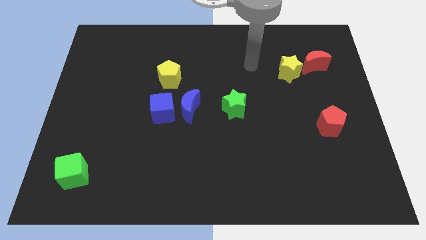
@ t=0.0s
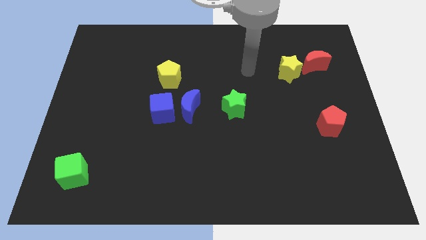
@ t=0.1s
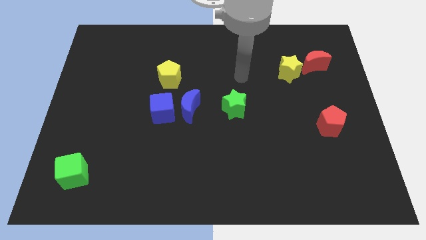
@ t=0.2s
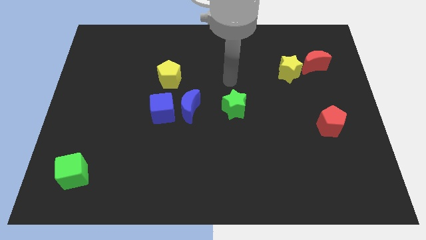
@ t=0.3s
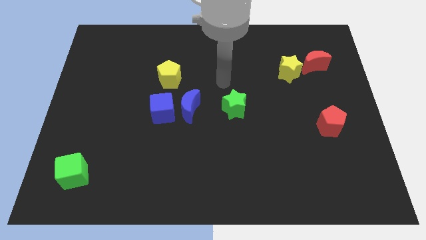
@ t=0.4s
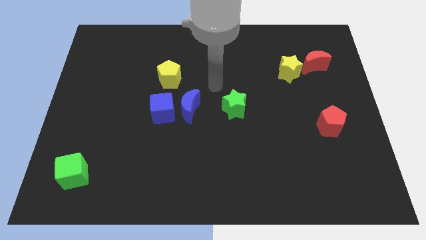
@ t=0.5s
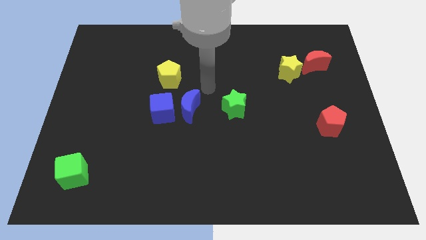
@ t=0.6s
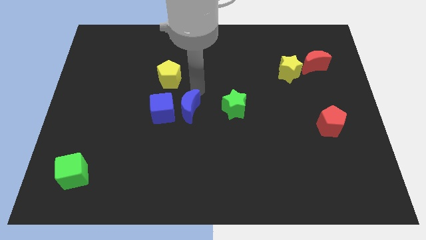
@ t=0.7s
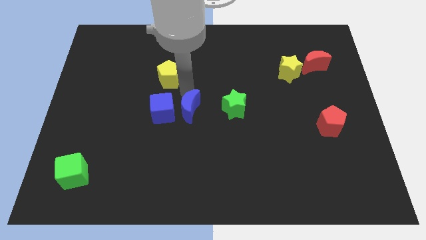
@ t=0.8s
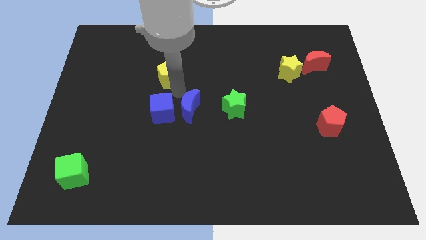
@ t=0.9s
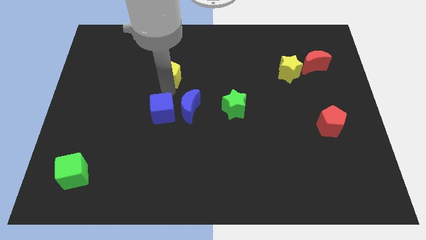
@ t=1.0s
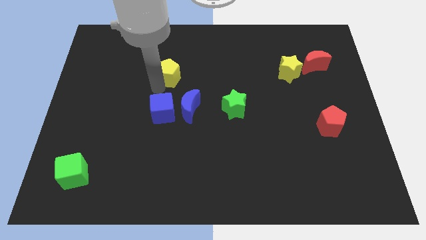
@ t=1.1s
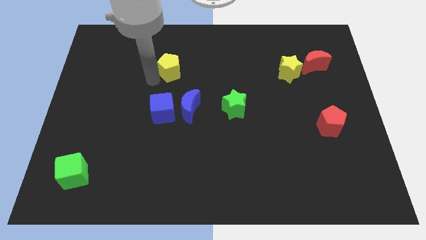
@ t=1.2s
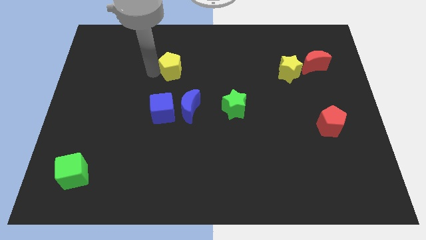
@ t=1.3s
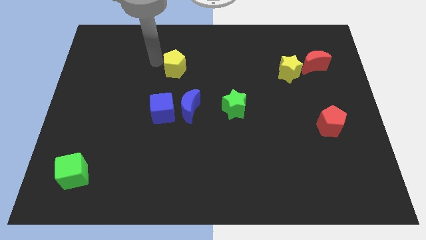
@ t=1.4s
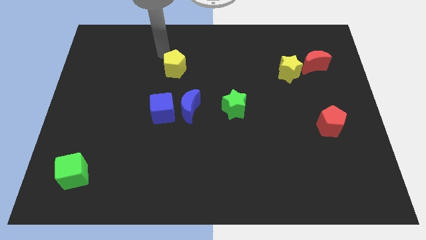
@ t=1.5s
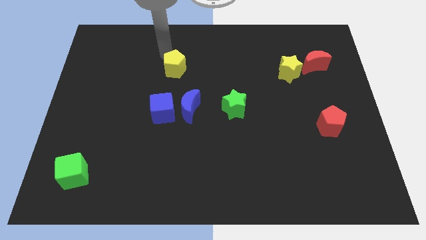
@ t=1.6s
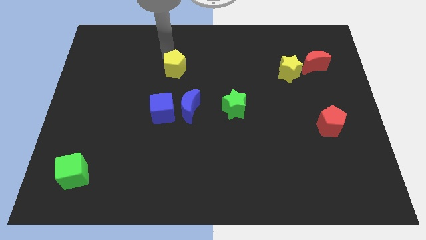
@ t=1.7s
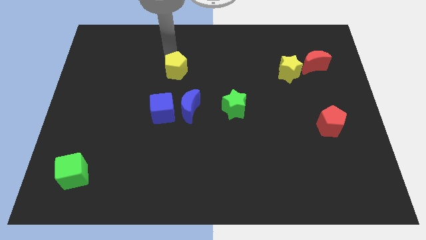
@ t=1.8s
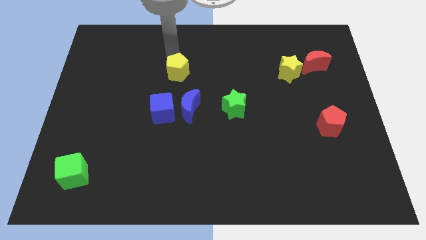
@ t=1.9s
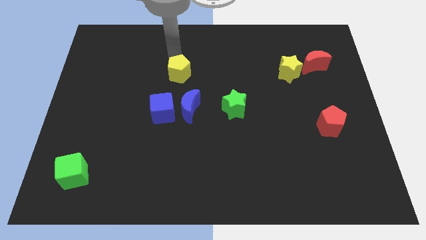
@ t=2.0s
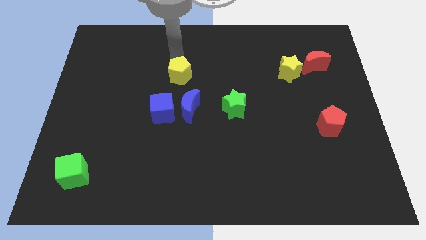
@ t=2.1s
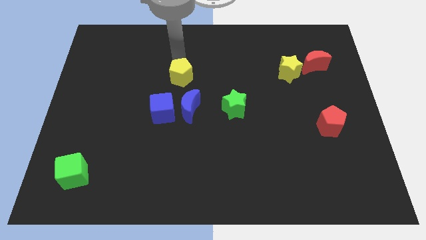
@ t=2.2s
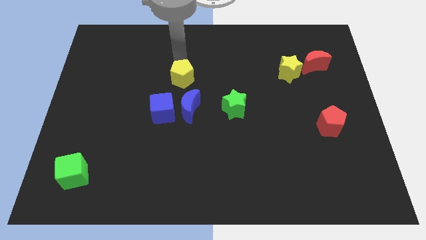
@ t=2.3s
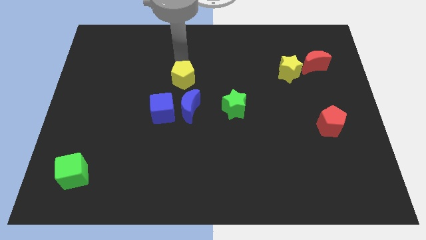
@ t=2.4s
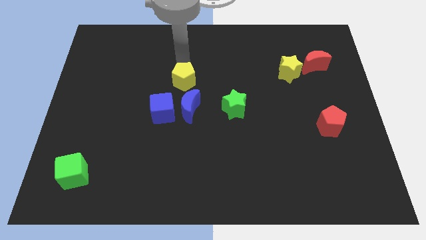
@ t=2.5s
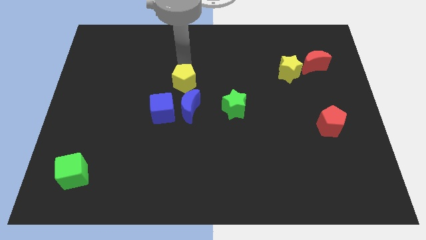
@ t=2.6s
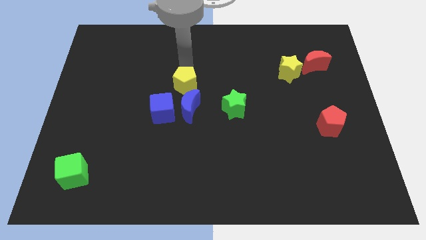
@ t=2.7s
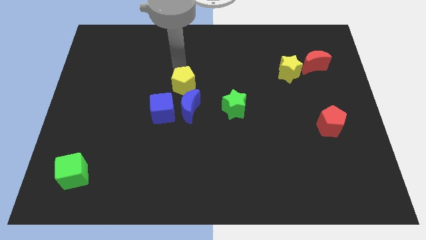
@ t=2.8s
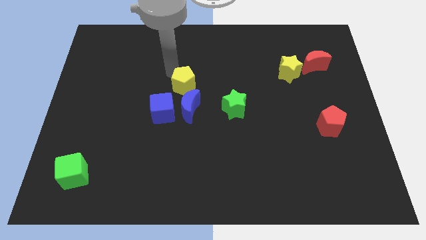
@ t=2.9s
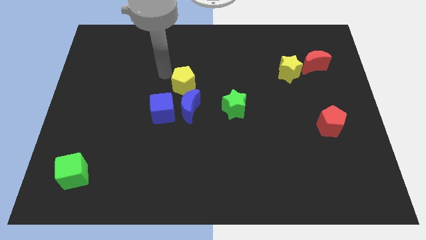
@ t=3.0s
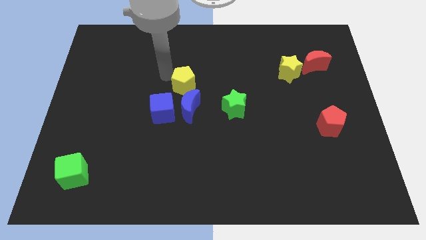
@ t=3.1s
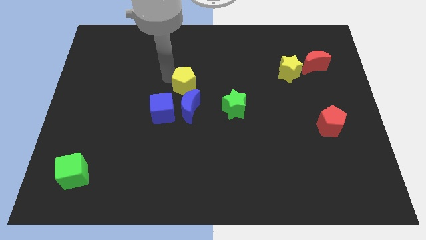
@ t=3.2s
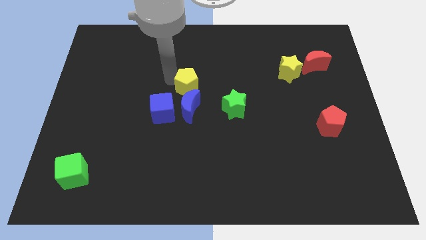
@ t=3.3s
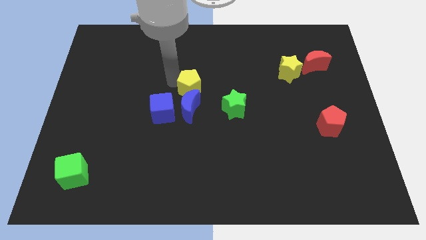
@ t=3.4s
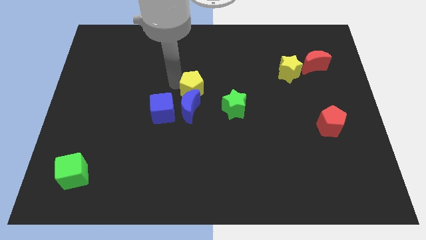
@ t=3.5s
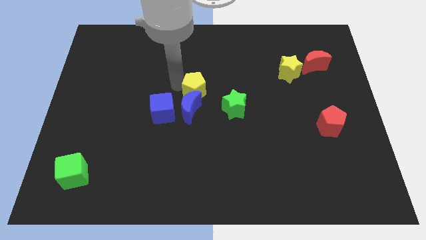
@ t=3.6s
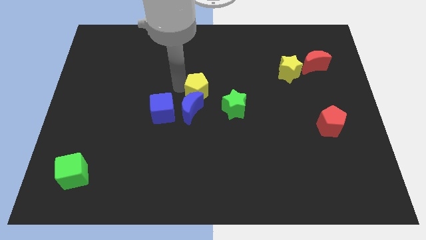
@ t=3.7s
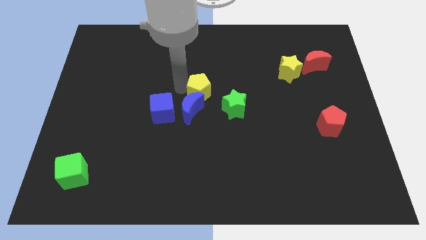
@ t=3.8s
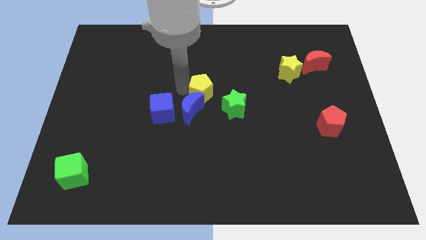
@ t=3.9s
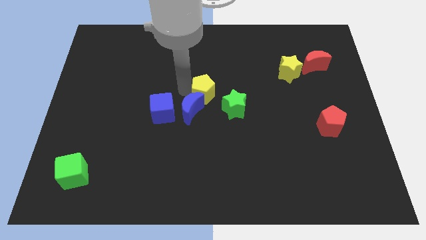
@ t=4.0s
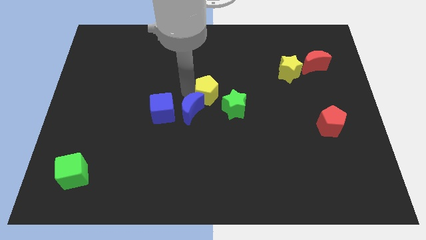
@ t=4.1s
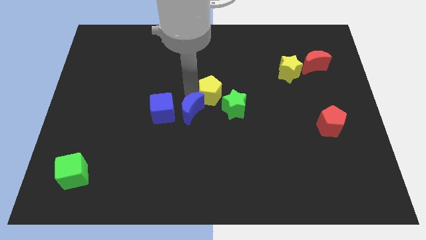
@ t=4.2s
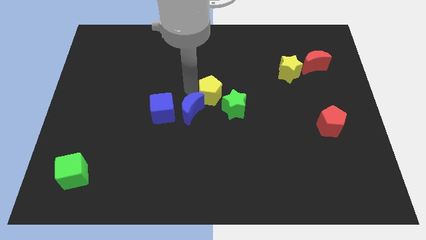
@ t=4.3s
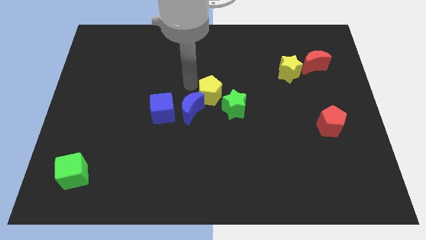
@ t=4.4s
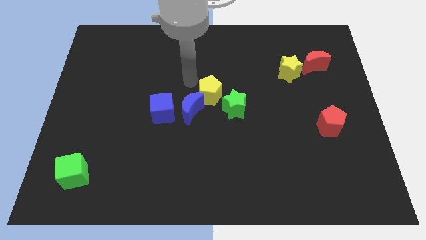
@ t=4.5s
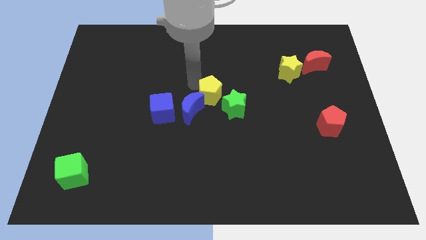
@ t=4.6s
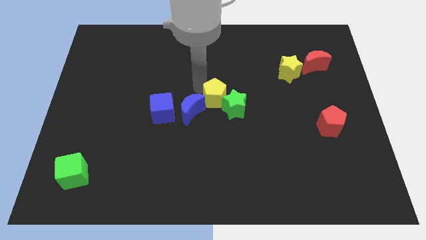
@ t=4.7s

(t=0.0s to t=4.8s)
put the yellow pentagon close to the green star

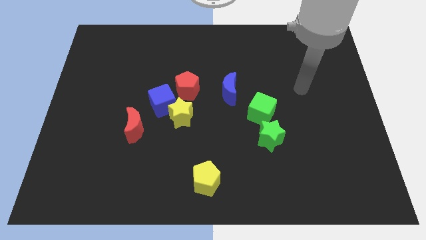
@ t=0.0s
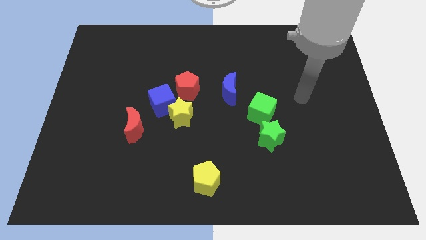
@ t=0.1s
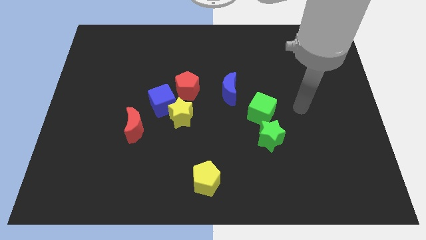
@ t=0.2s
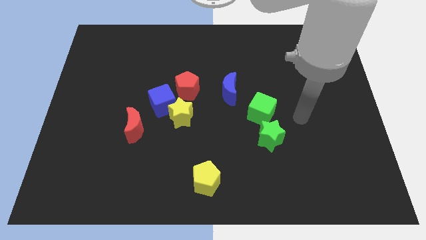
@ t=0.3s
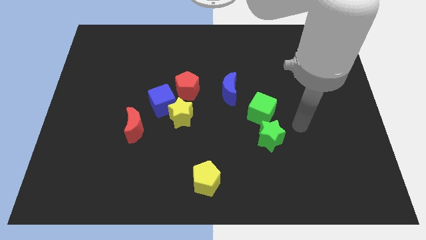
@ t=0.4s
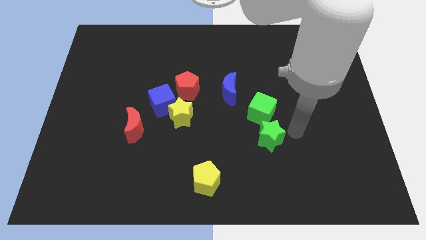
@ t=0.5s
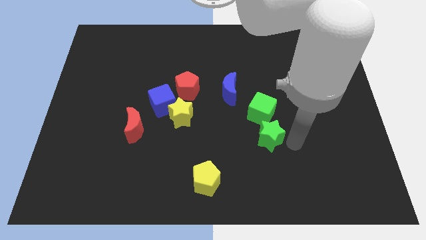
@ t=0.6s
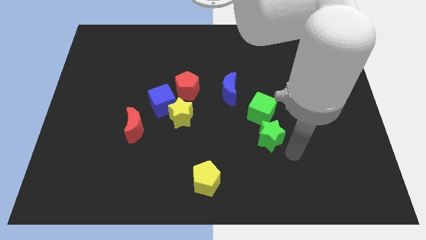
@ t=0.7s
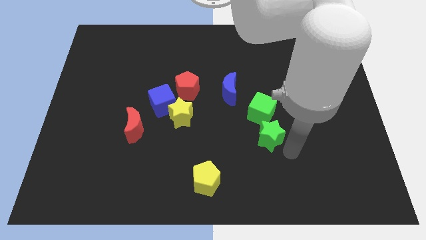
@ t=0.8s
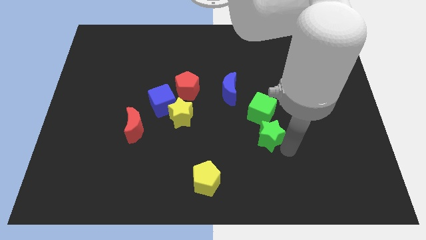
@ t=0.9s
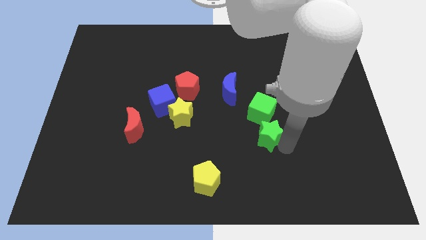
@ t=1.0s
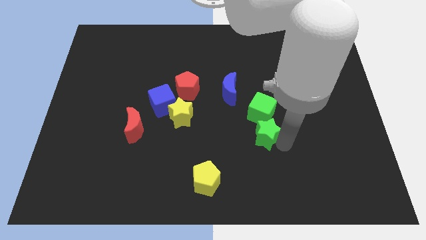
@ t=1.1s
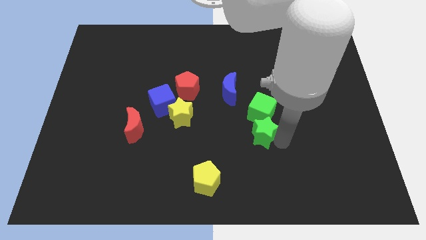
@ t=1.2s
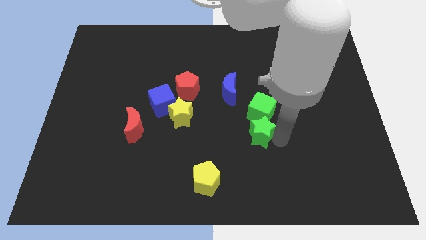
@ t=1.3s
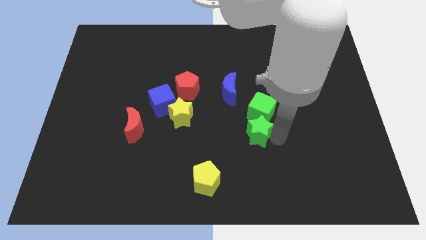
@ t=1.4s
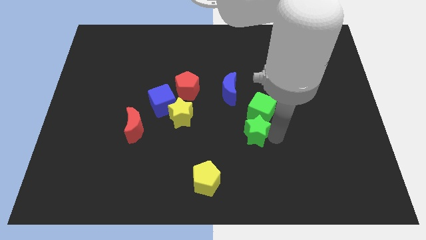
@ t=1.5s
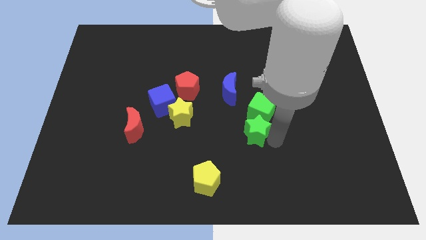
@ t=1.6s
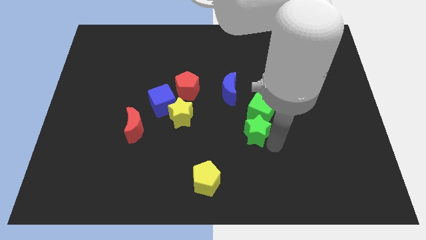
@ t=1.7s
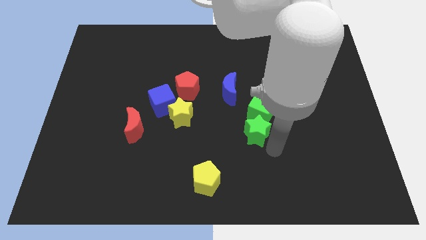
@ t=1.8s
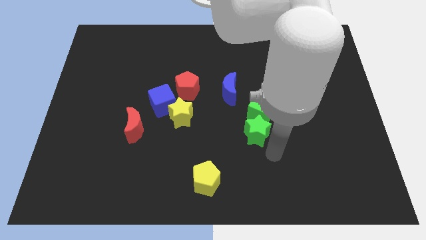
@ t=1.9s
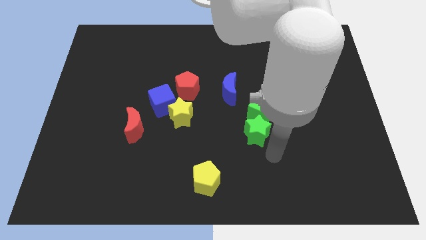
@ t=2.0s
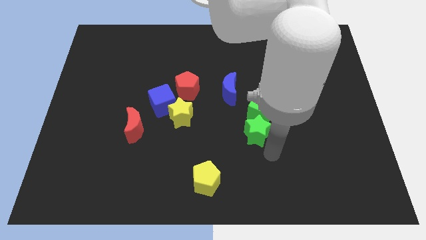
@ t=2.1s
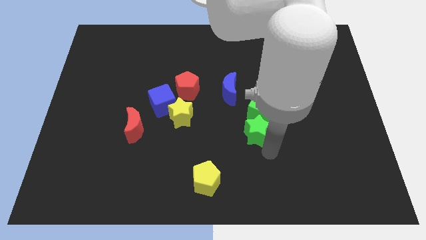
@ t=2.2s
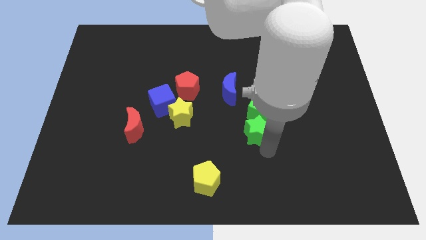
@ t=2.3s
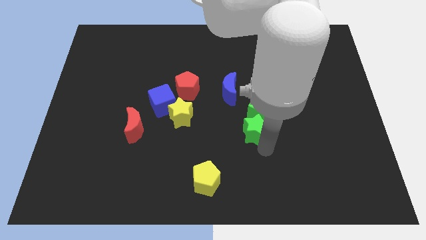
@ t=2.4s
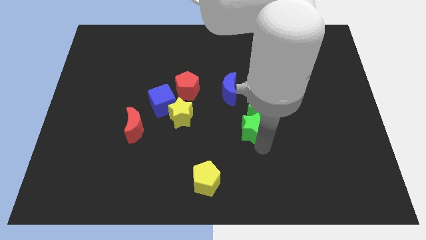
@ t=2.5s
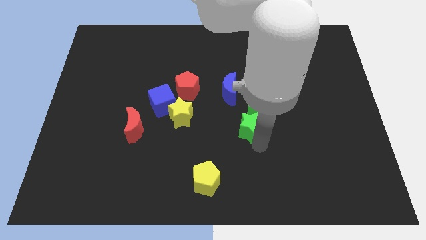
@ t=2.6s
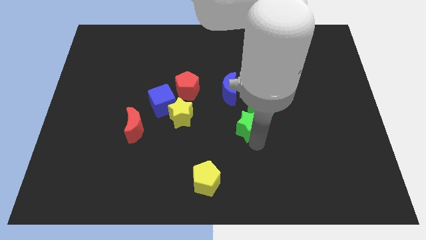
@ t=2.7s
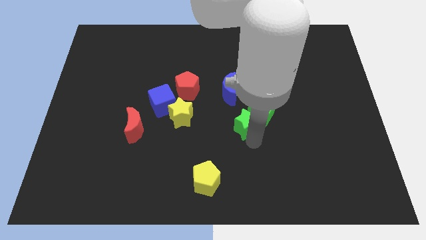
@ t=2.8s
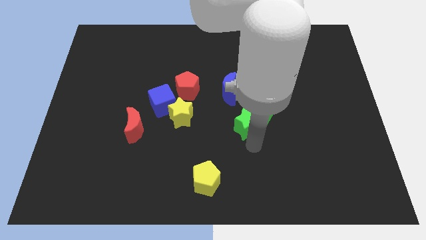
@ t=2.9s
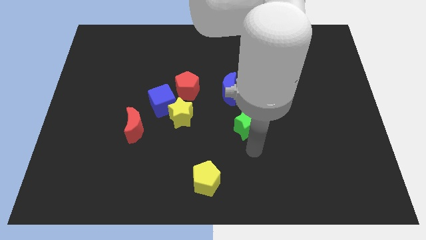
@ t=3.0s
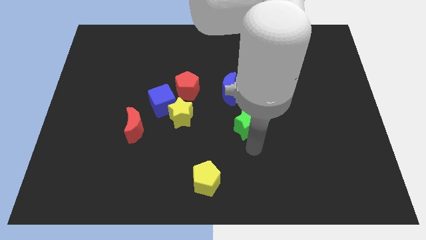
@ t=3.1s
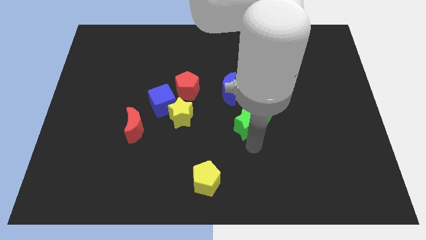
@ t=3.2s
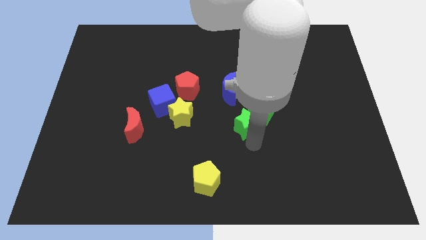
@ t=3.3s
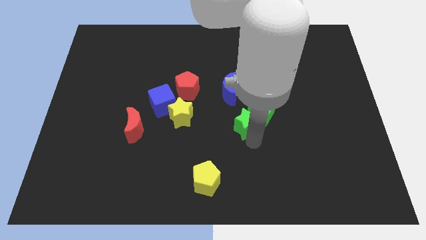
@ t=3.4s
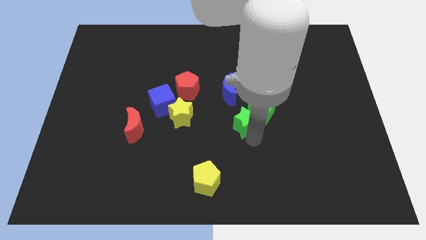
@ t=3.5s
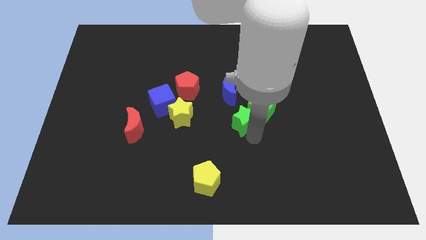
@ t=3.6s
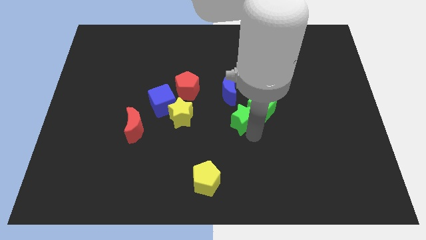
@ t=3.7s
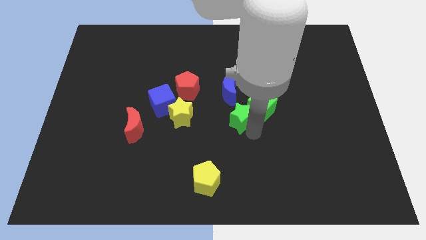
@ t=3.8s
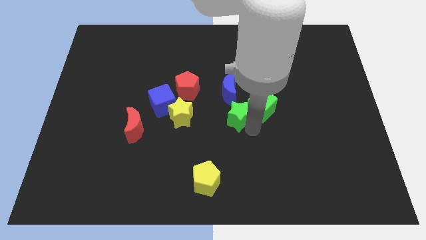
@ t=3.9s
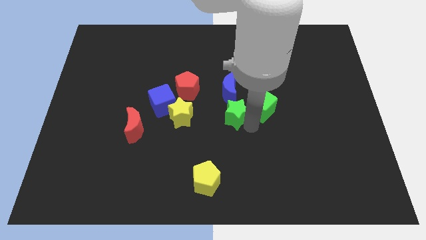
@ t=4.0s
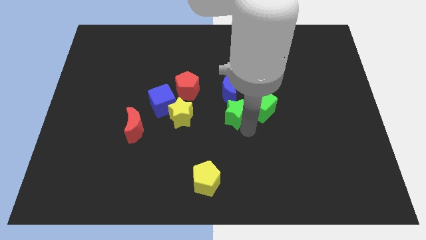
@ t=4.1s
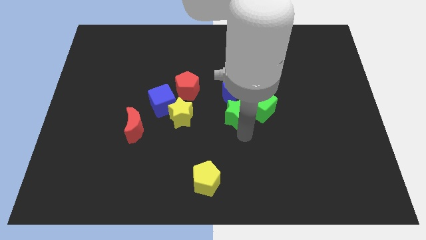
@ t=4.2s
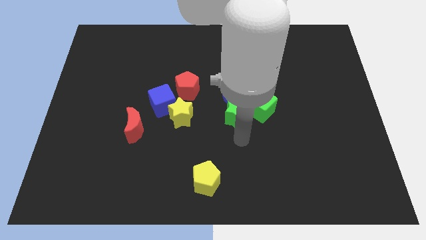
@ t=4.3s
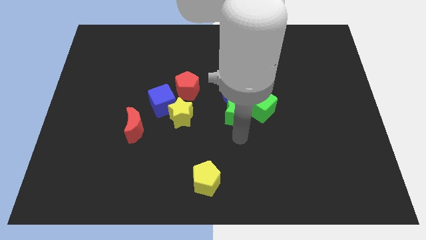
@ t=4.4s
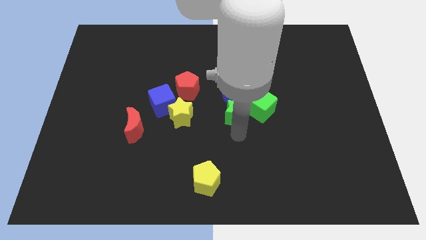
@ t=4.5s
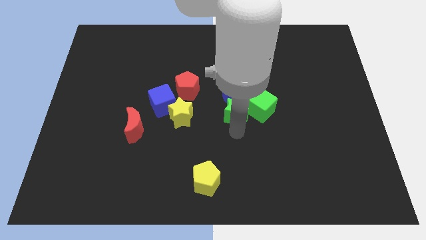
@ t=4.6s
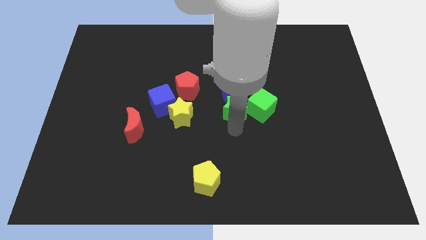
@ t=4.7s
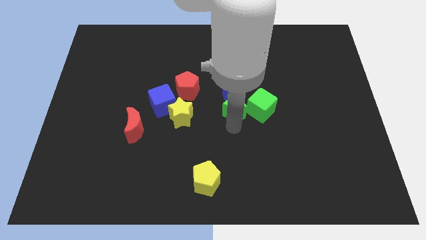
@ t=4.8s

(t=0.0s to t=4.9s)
put the green star towards the blue moon
